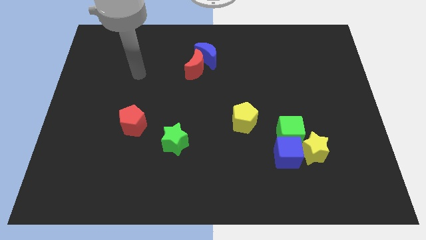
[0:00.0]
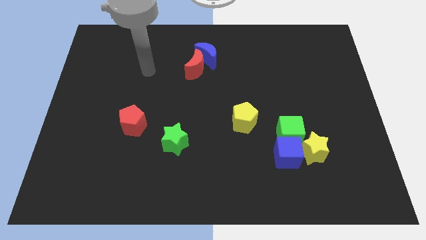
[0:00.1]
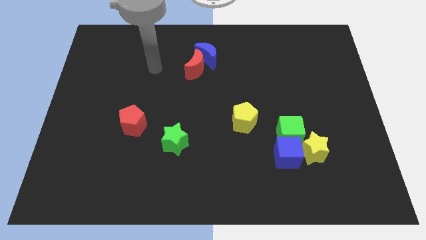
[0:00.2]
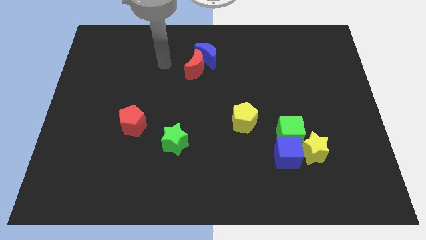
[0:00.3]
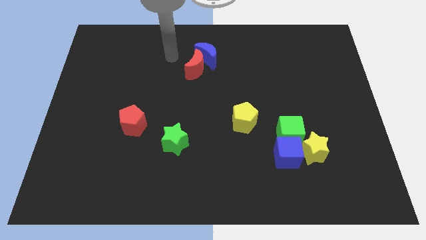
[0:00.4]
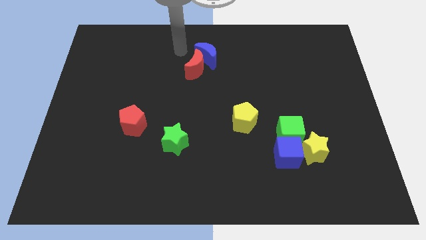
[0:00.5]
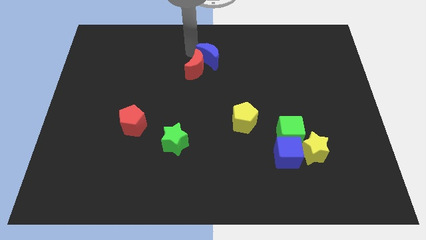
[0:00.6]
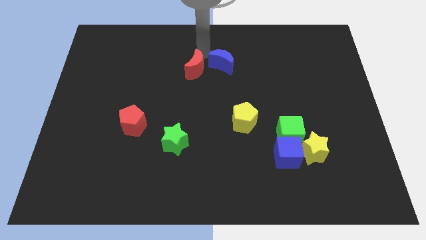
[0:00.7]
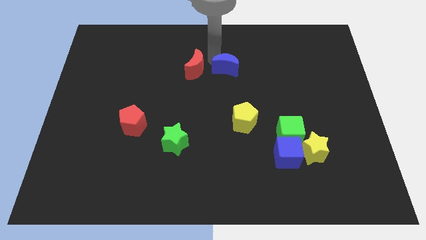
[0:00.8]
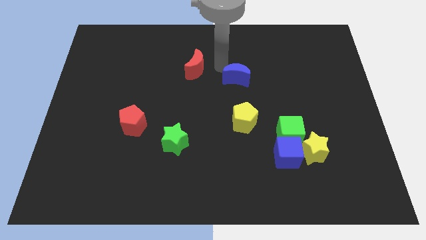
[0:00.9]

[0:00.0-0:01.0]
move the red moon away from the blue moon

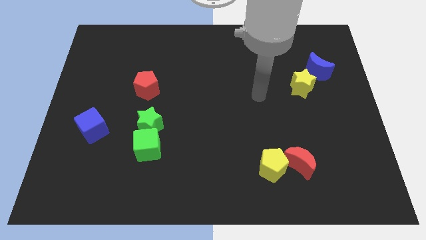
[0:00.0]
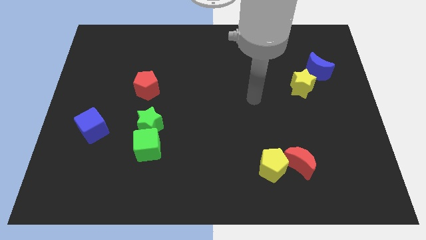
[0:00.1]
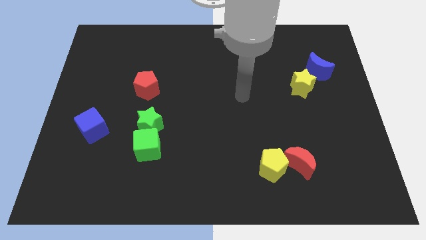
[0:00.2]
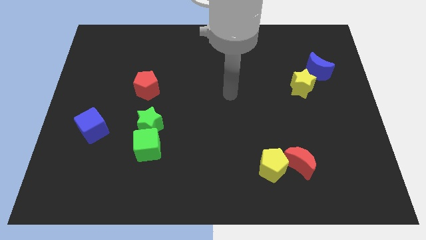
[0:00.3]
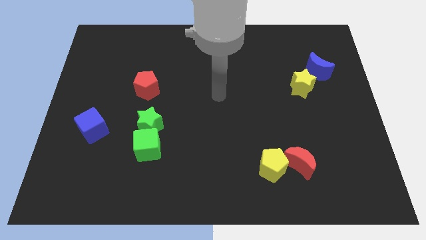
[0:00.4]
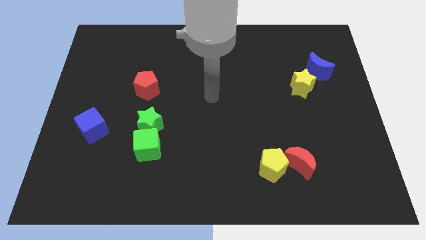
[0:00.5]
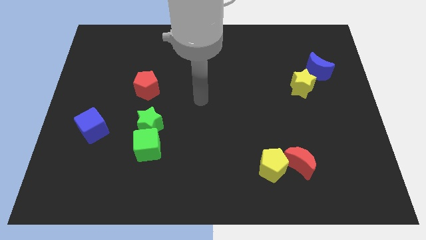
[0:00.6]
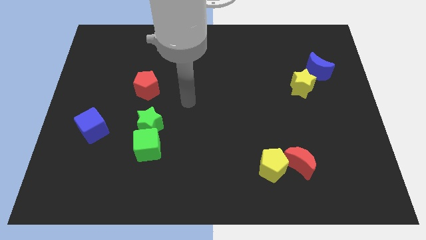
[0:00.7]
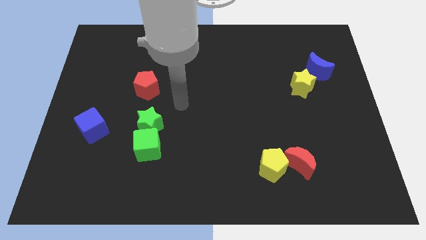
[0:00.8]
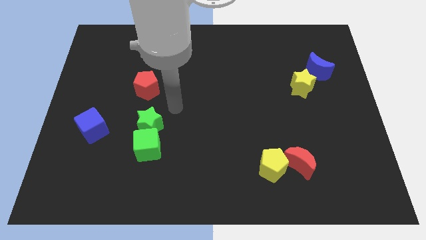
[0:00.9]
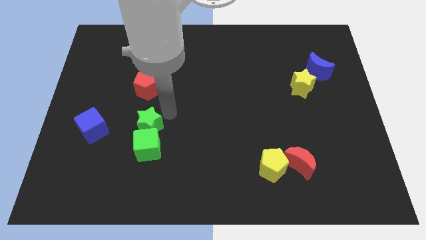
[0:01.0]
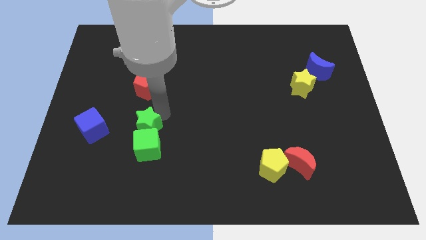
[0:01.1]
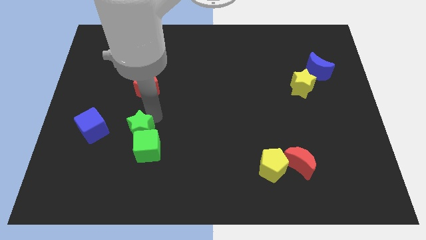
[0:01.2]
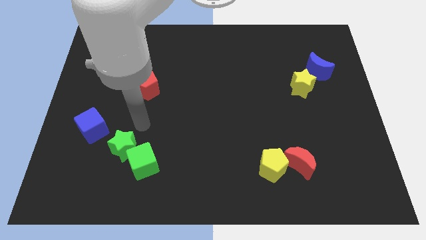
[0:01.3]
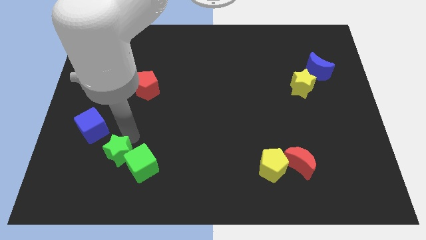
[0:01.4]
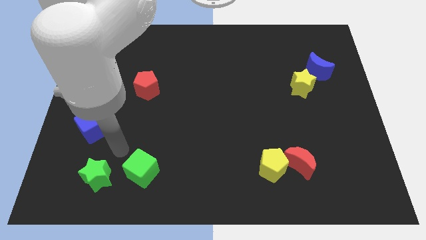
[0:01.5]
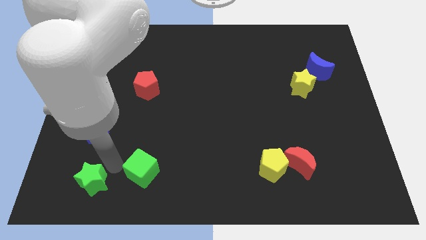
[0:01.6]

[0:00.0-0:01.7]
separate the green cube from the green star

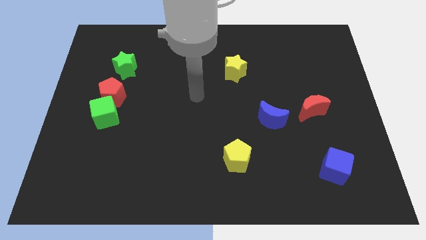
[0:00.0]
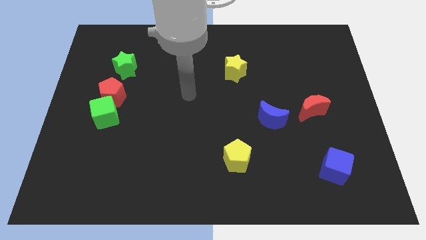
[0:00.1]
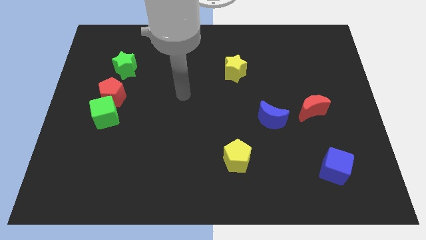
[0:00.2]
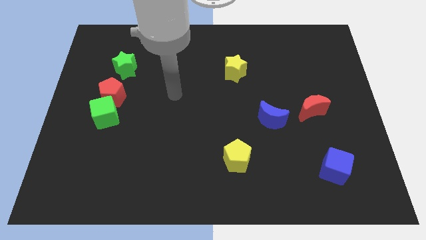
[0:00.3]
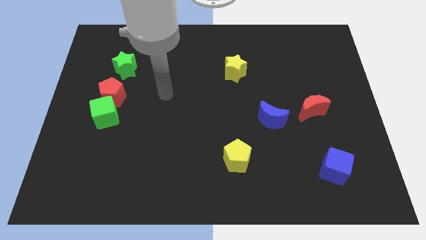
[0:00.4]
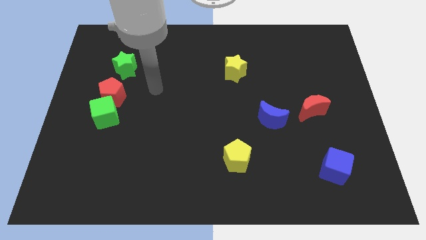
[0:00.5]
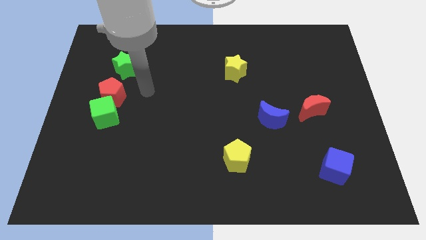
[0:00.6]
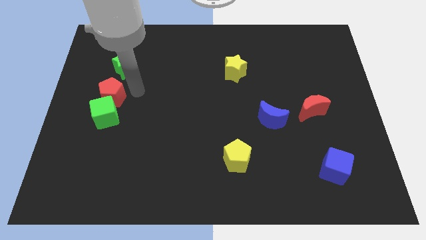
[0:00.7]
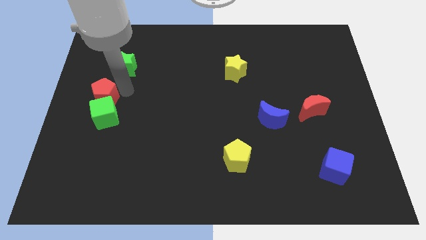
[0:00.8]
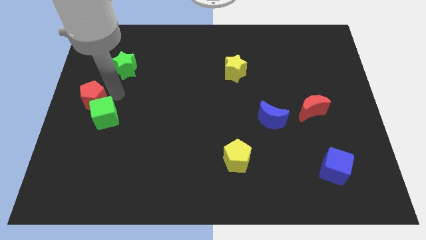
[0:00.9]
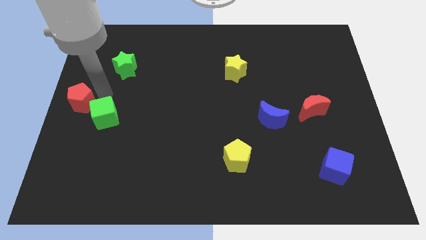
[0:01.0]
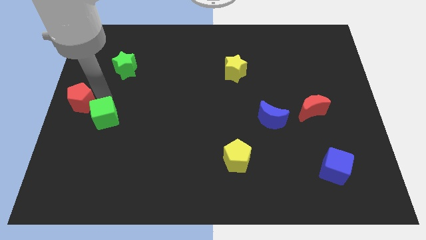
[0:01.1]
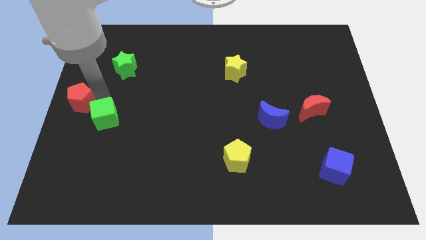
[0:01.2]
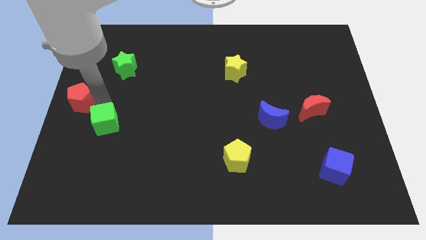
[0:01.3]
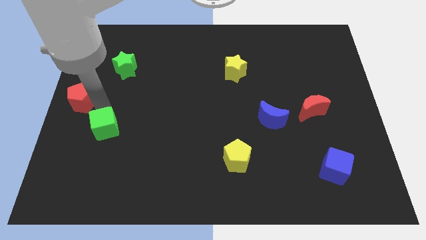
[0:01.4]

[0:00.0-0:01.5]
move the green cube away from the red pentagon

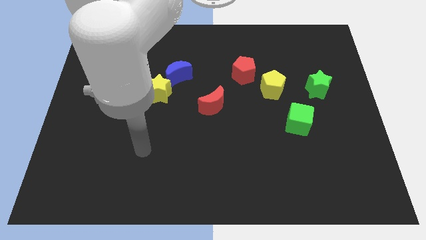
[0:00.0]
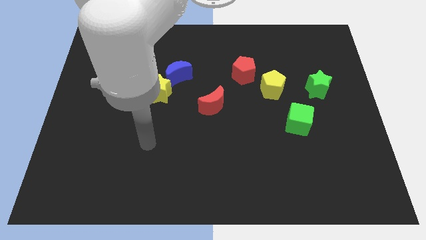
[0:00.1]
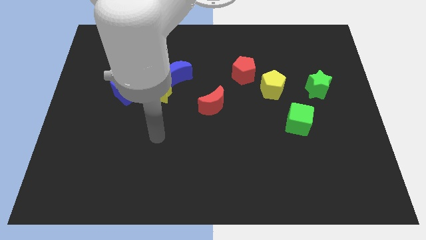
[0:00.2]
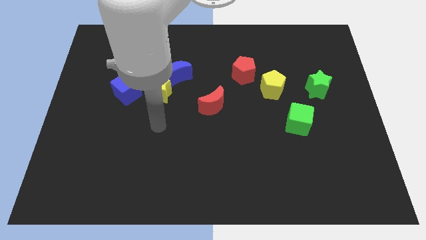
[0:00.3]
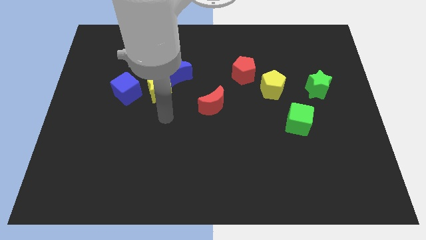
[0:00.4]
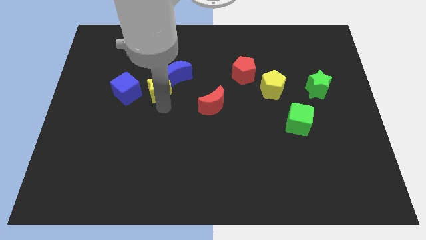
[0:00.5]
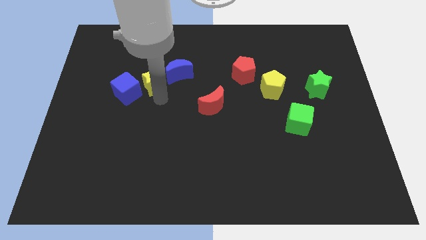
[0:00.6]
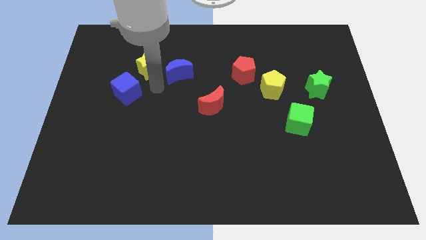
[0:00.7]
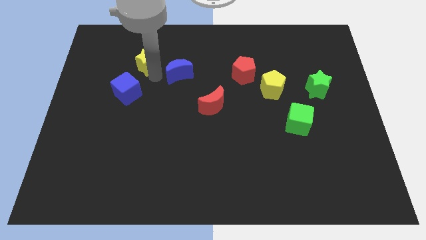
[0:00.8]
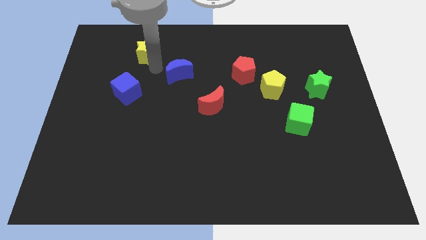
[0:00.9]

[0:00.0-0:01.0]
pull the blue moon apart from the yellow star

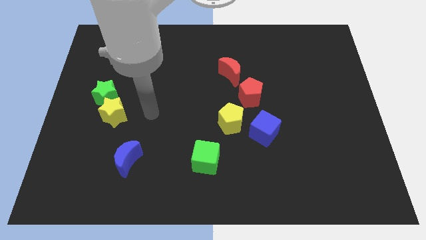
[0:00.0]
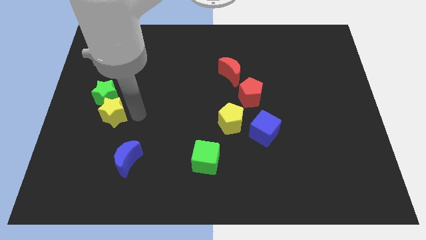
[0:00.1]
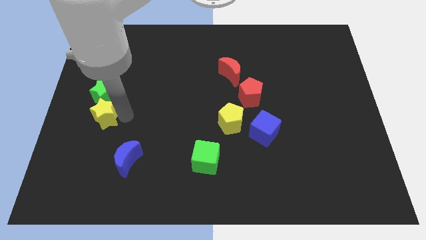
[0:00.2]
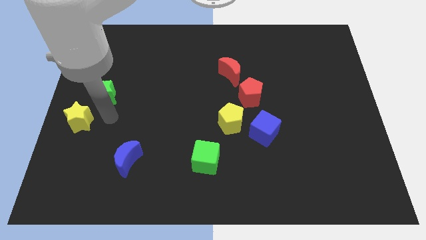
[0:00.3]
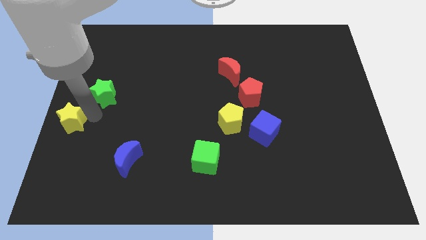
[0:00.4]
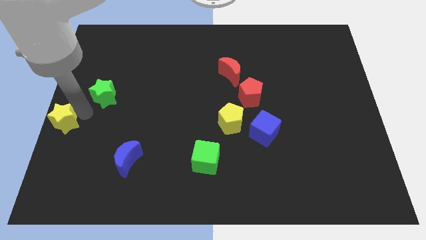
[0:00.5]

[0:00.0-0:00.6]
pull the green star apart from the yellow star

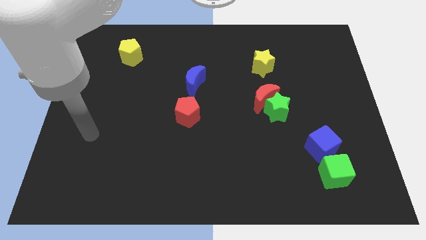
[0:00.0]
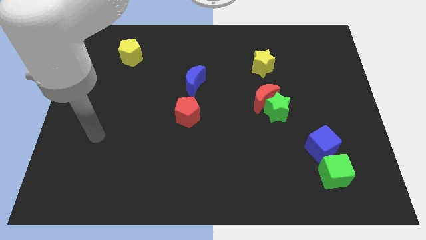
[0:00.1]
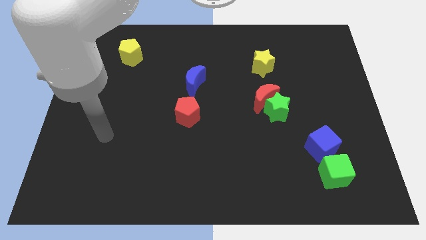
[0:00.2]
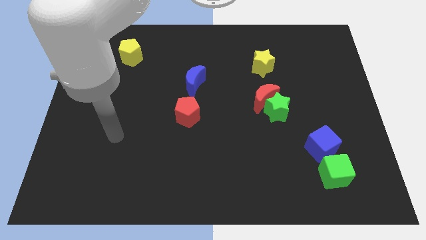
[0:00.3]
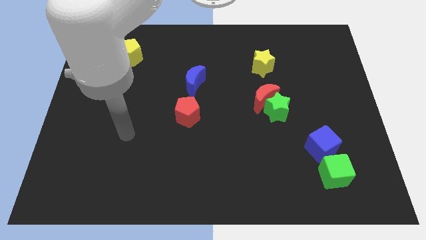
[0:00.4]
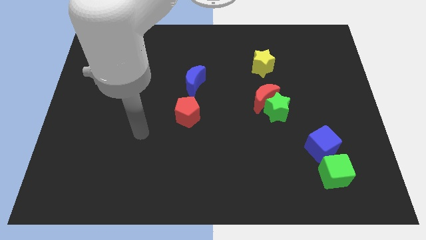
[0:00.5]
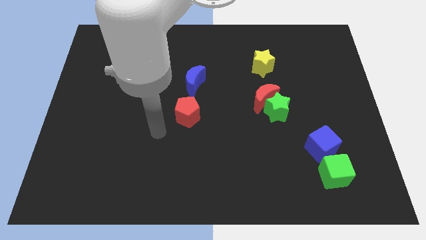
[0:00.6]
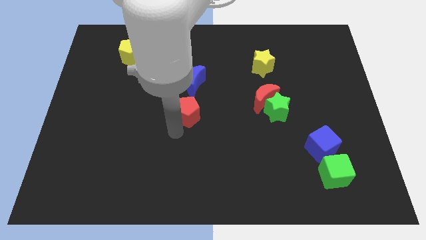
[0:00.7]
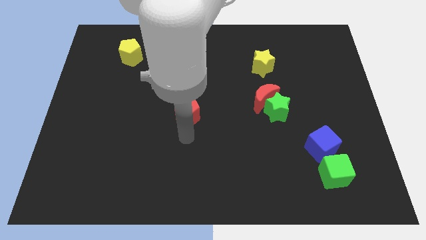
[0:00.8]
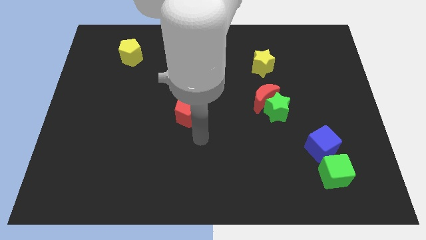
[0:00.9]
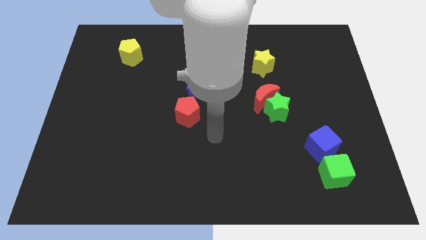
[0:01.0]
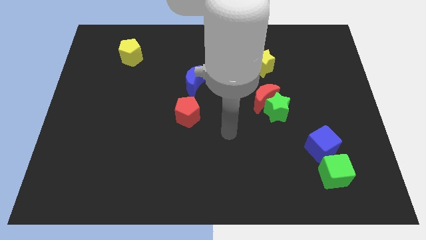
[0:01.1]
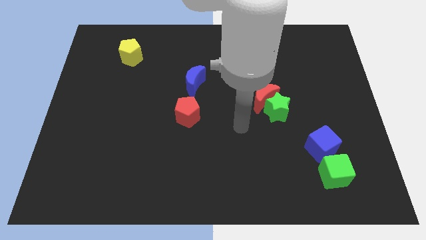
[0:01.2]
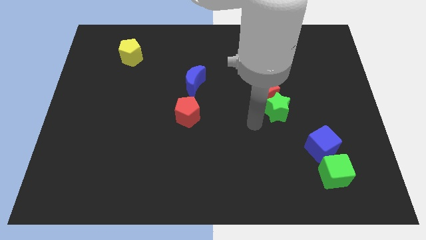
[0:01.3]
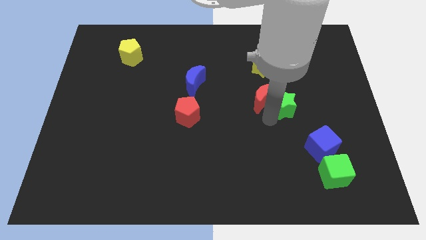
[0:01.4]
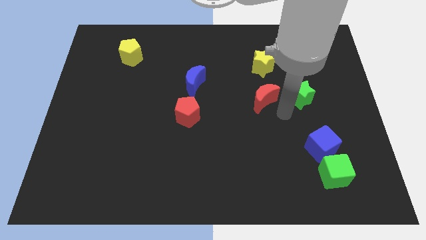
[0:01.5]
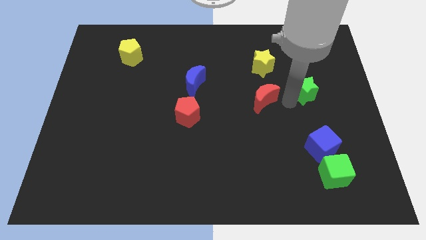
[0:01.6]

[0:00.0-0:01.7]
pull the red moon apart from the green star

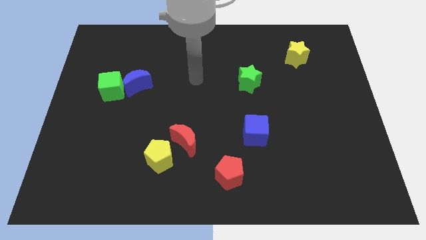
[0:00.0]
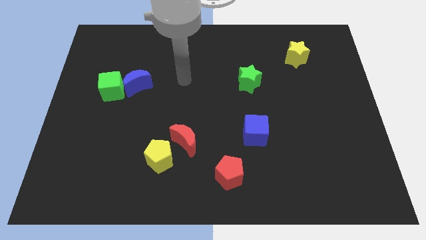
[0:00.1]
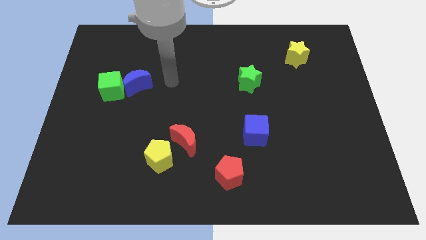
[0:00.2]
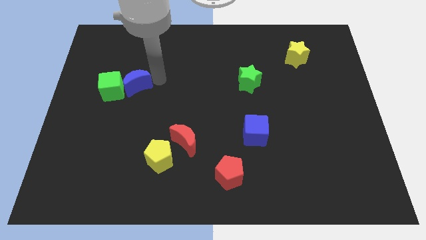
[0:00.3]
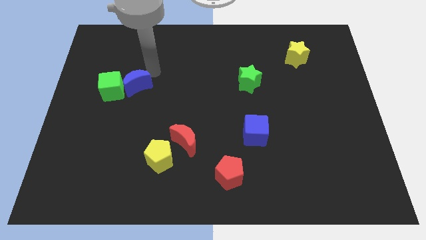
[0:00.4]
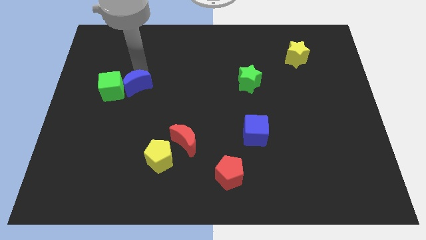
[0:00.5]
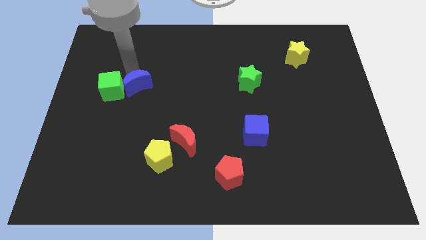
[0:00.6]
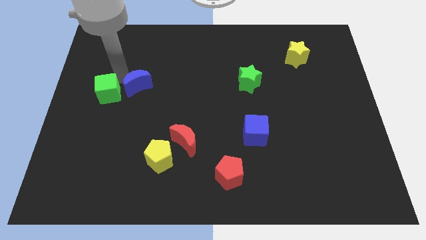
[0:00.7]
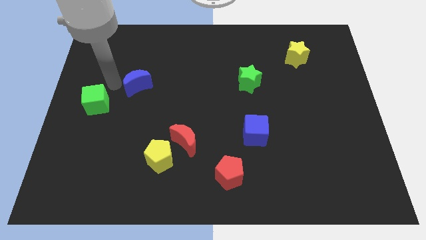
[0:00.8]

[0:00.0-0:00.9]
move the blue moon away from the green cube

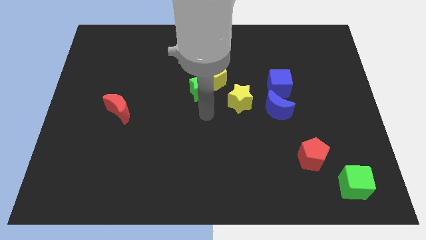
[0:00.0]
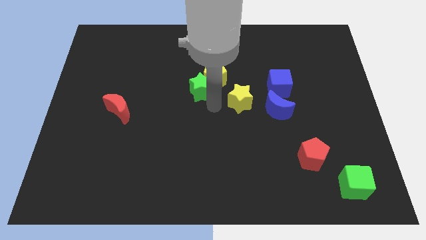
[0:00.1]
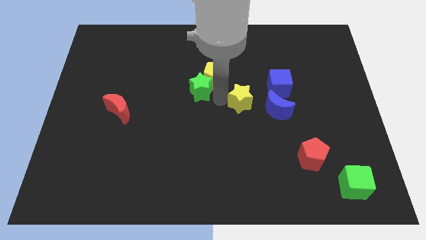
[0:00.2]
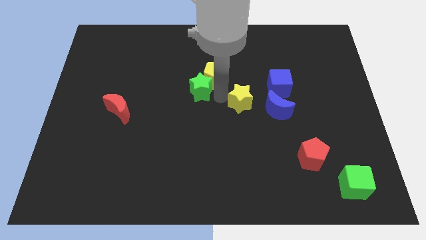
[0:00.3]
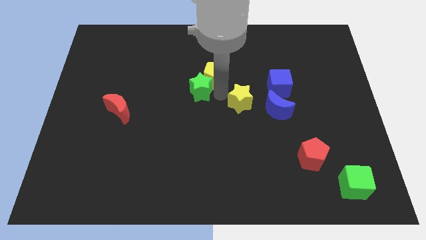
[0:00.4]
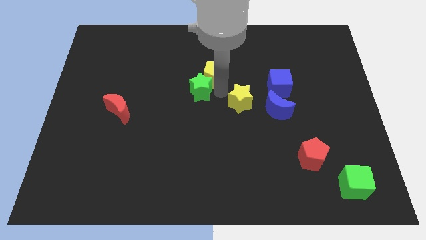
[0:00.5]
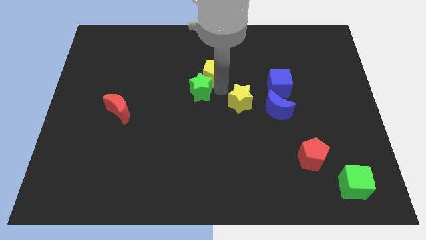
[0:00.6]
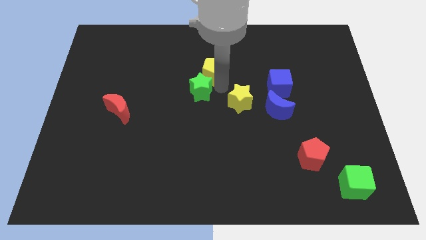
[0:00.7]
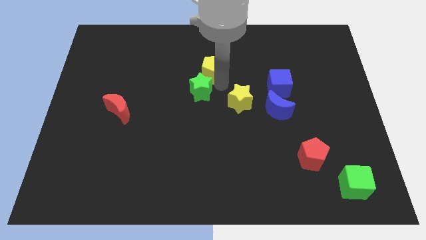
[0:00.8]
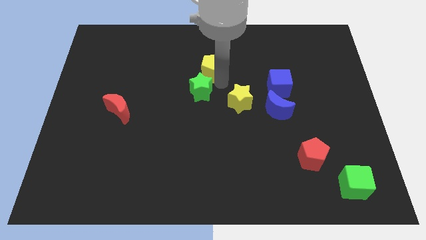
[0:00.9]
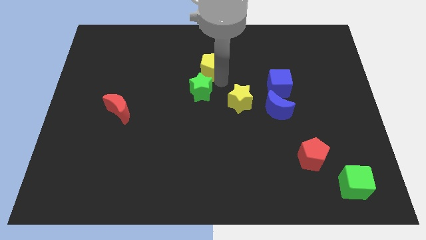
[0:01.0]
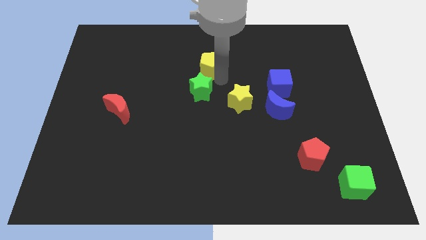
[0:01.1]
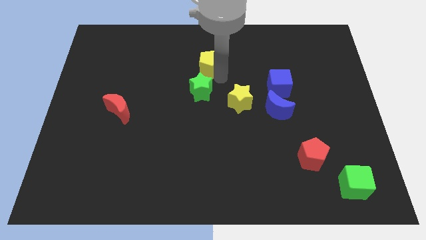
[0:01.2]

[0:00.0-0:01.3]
separate the yellow pentagon from the green star and yellow star
